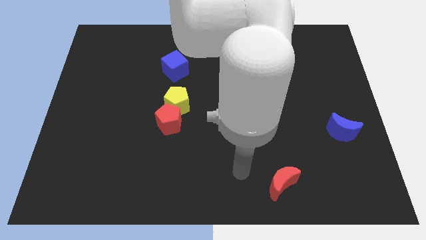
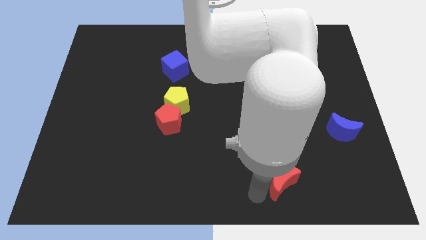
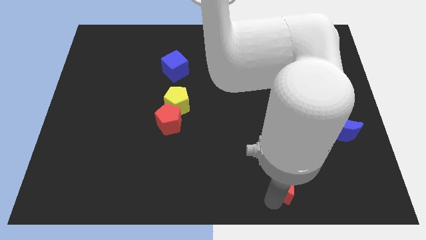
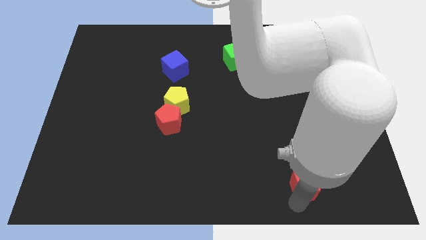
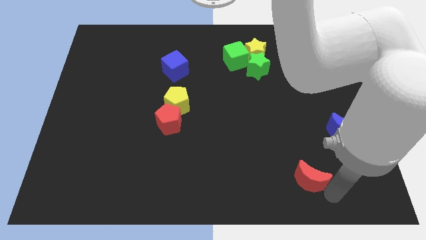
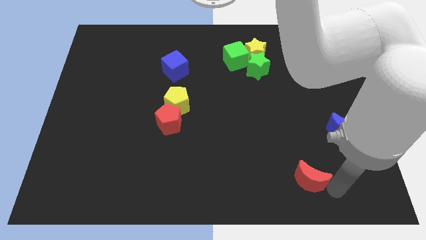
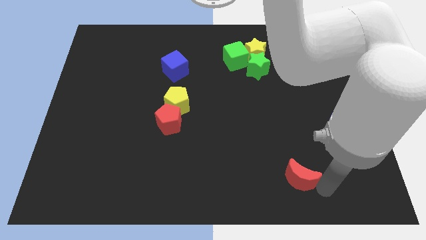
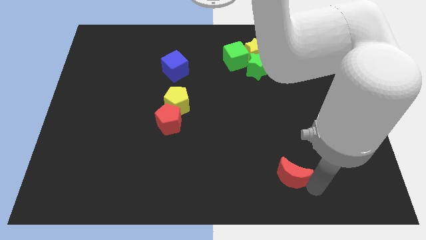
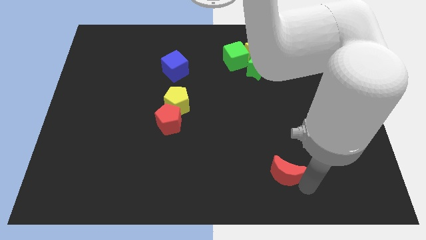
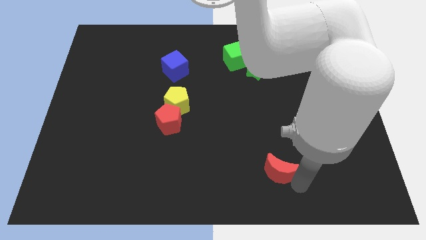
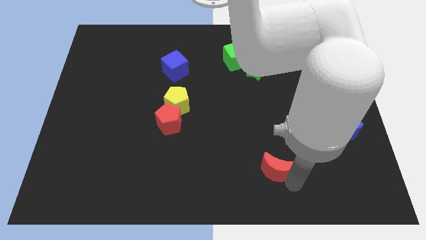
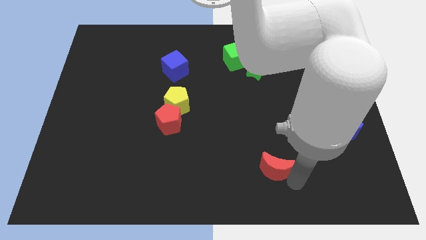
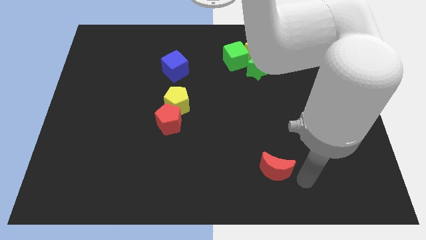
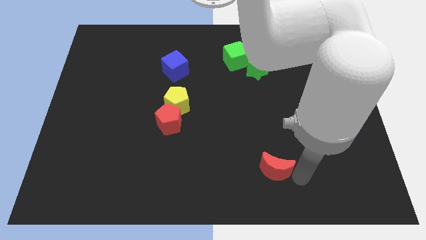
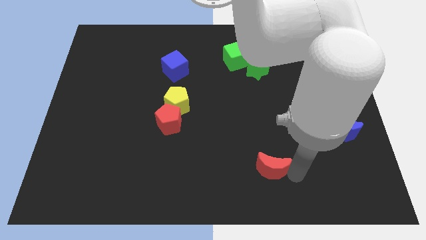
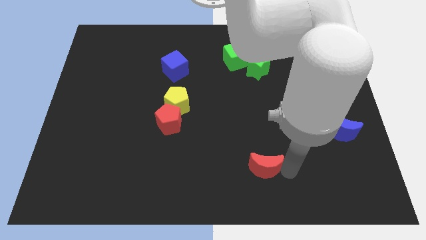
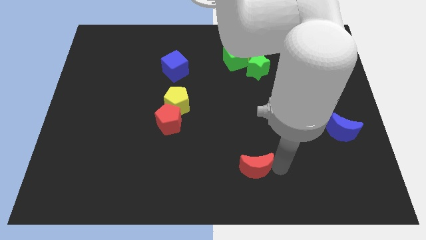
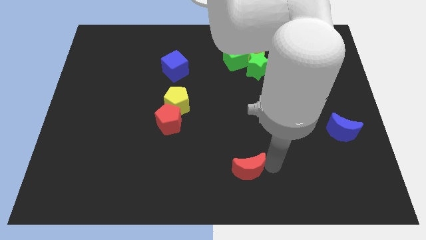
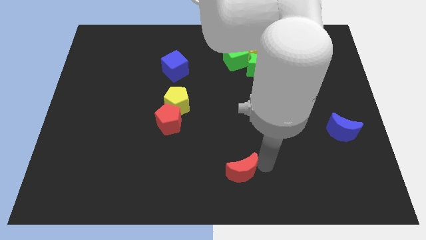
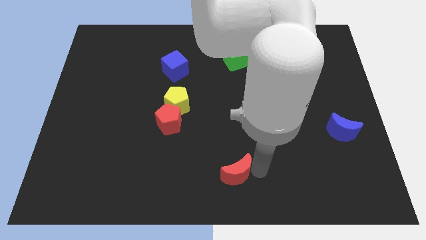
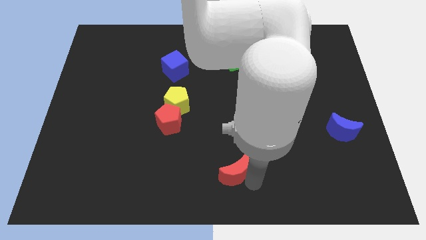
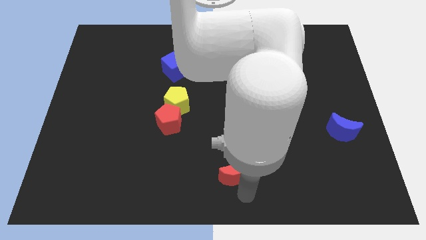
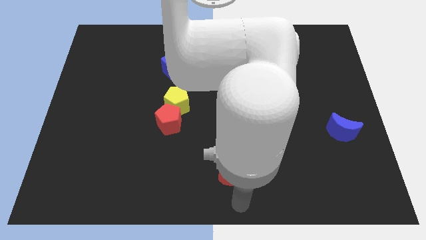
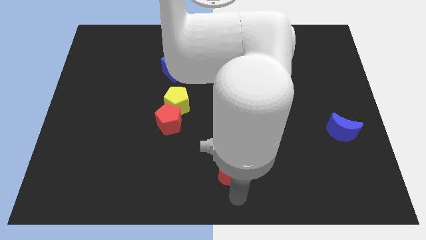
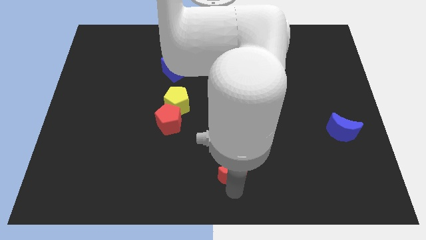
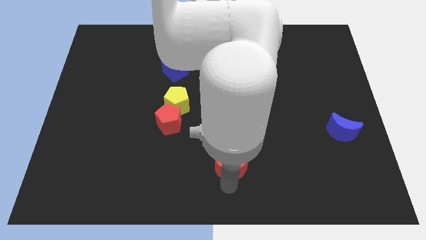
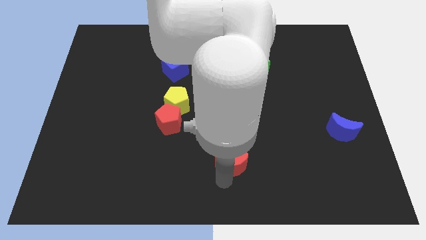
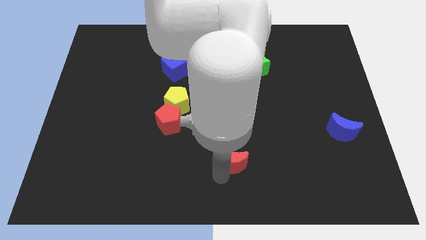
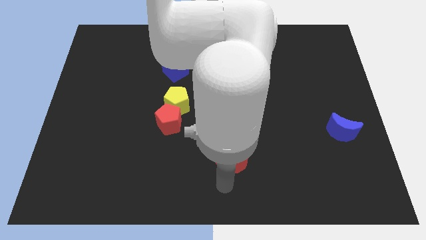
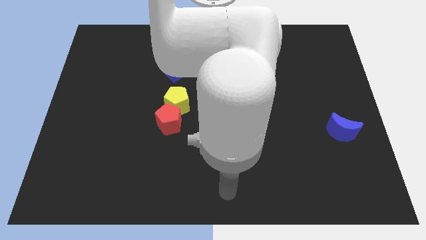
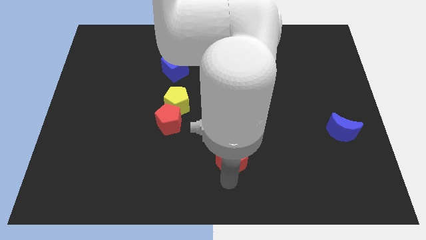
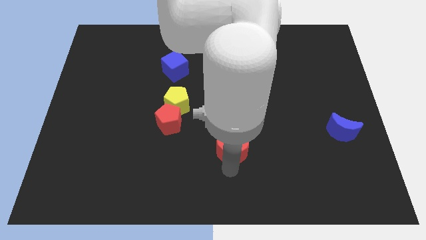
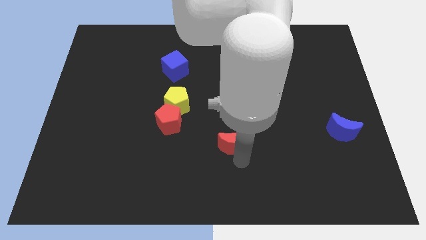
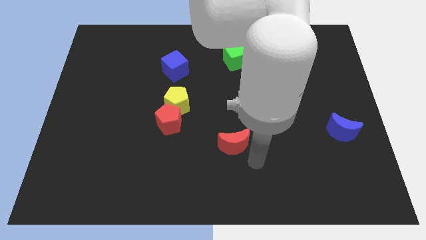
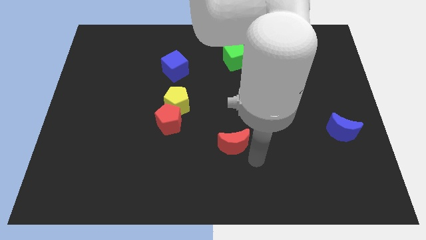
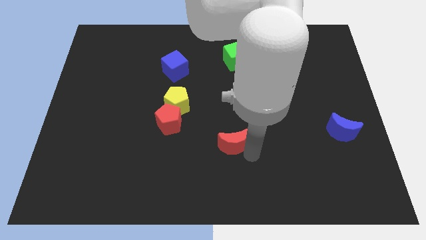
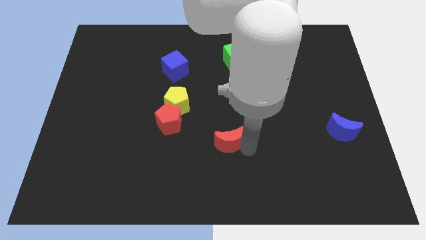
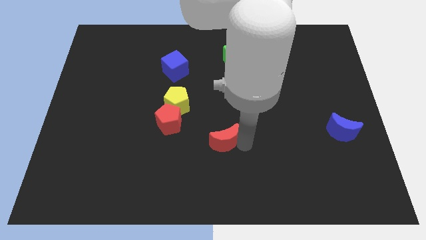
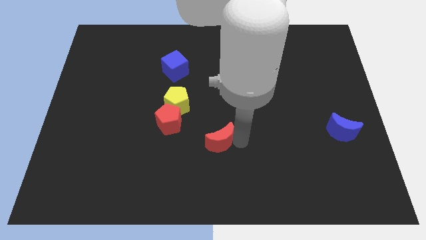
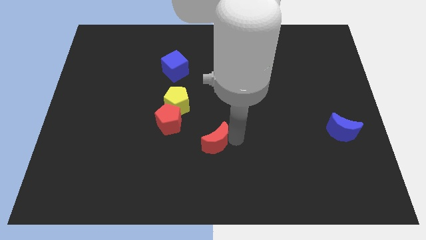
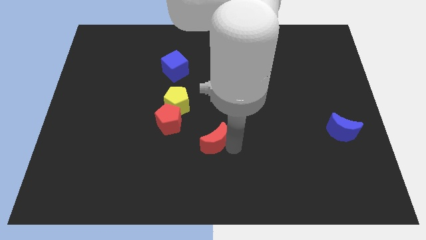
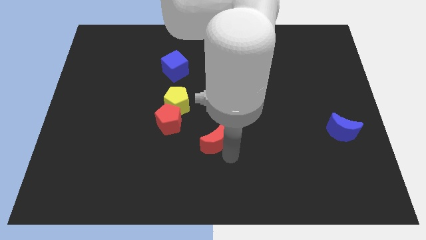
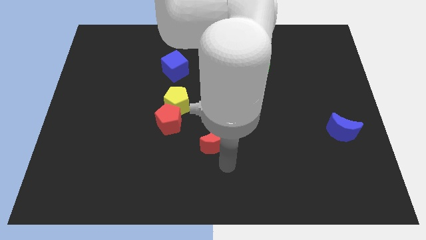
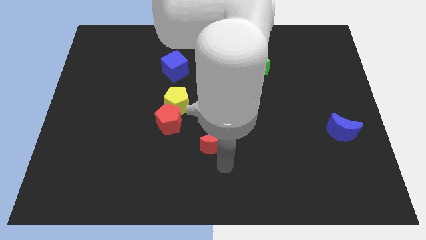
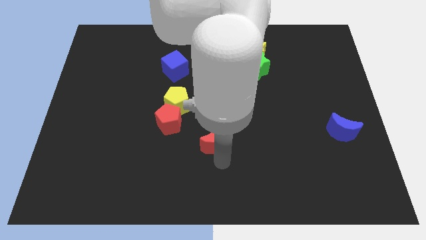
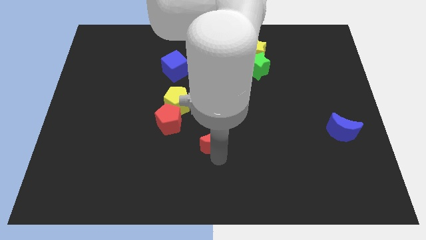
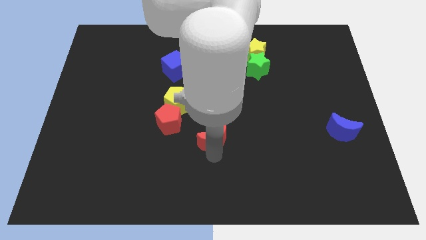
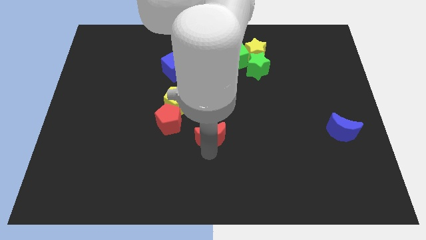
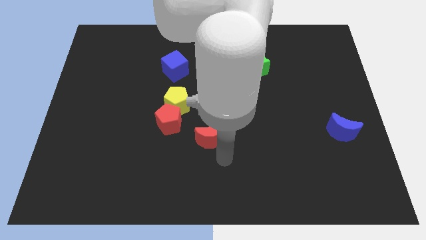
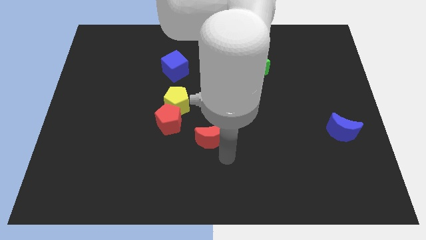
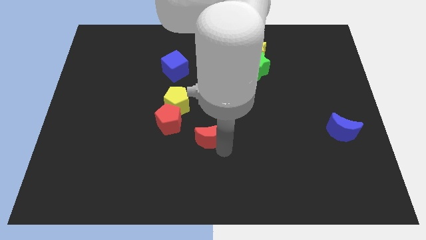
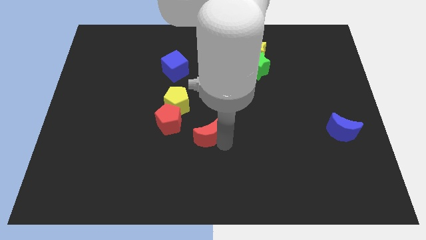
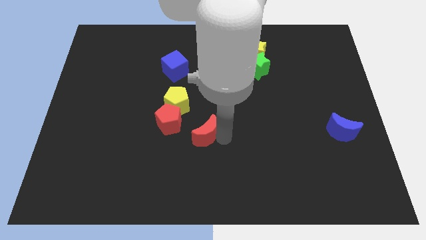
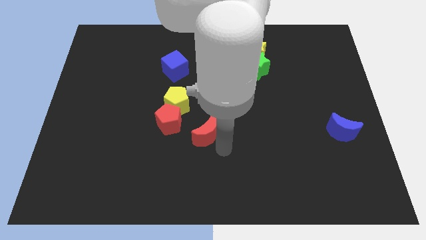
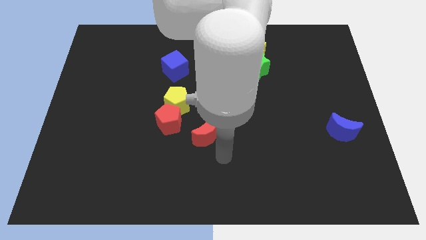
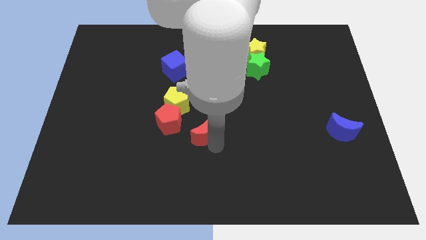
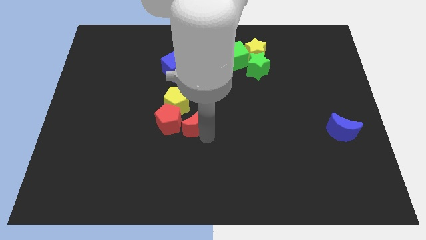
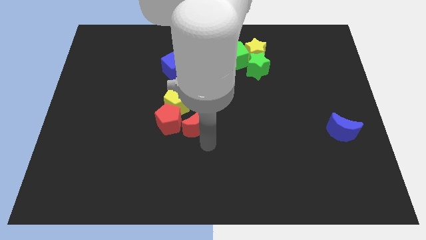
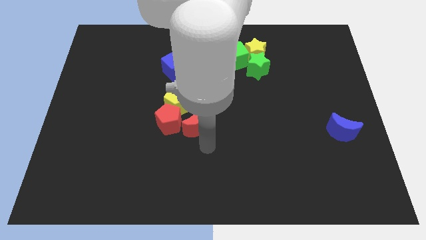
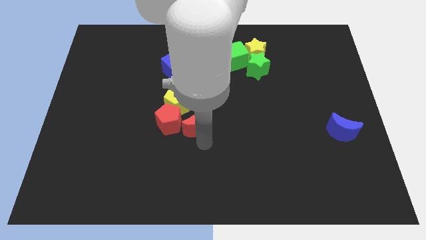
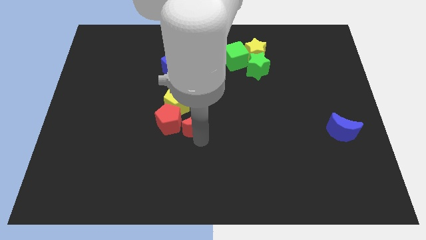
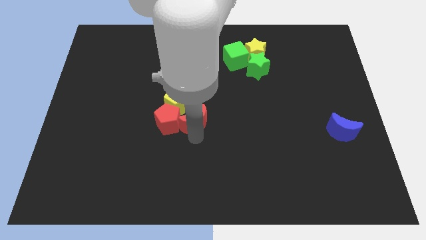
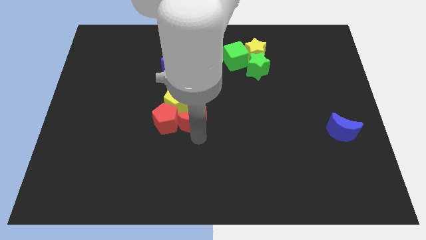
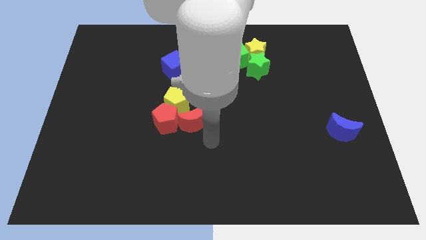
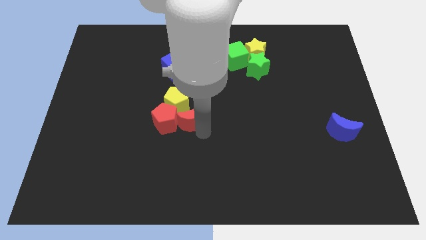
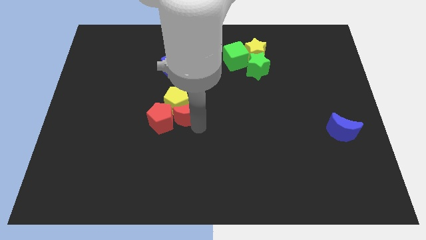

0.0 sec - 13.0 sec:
move the red moon next to the yellow pentagon

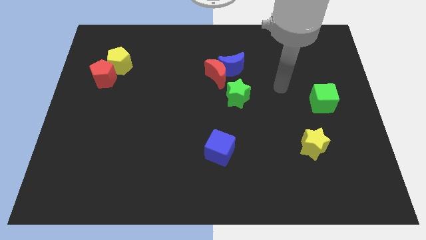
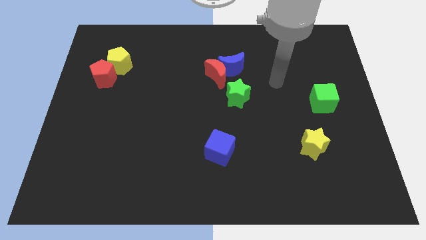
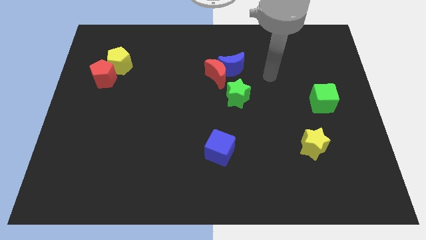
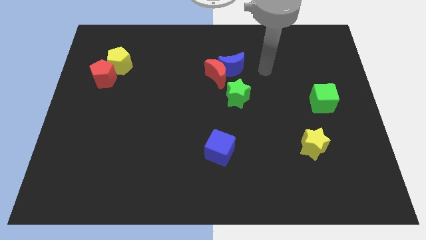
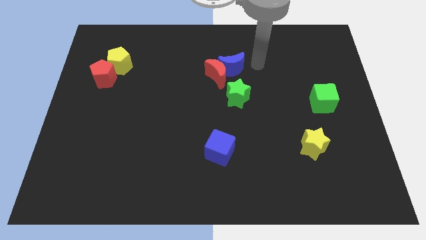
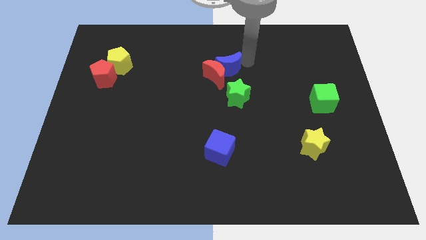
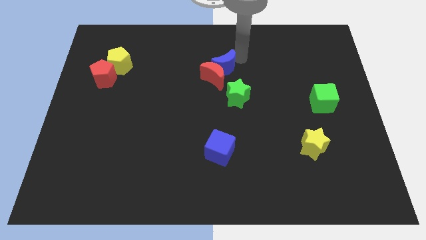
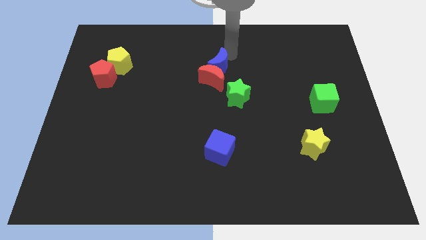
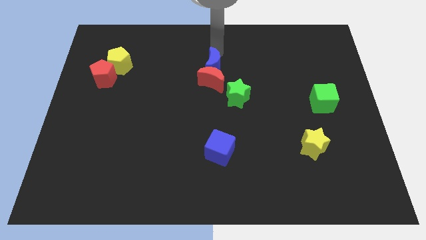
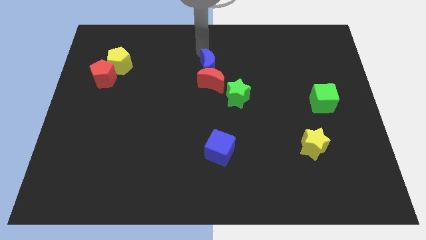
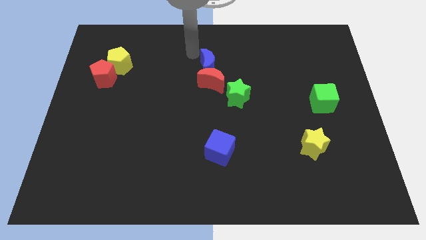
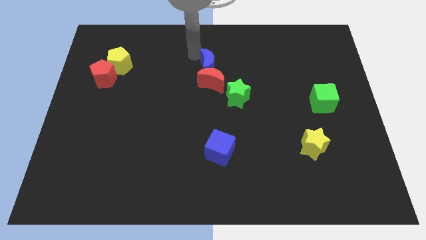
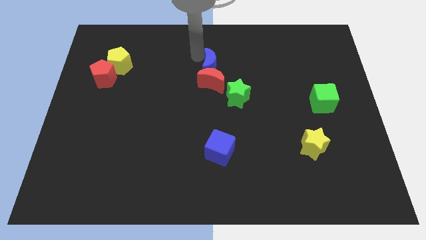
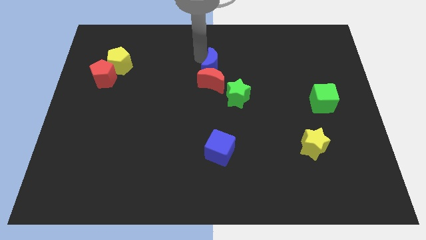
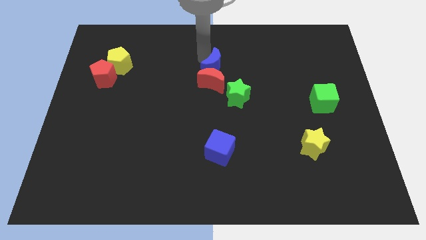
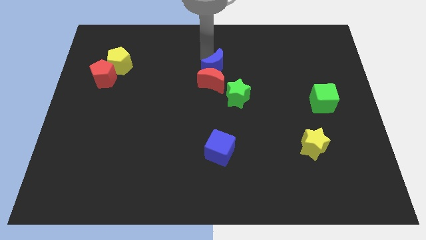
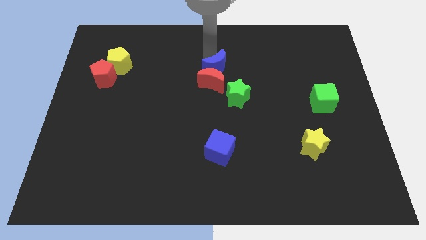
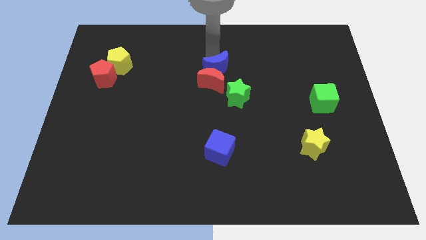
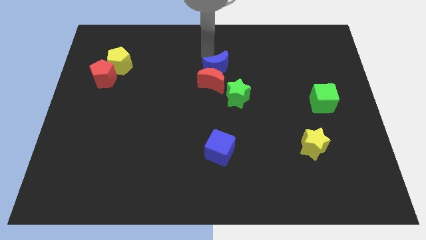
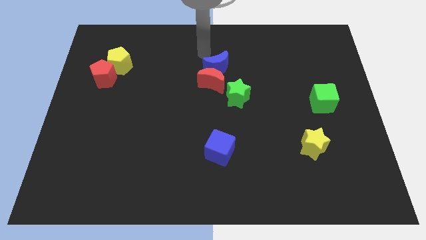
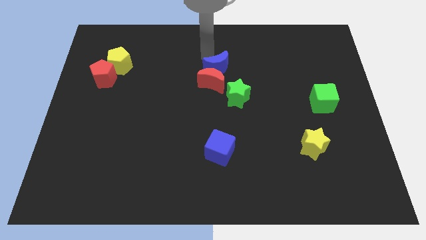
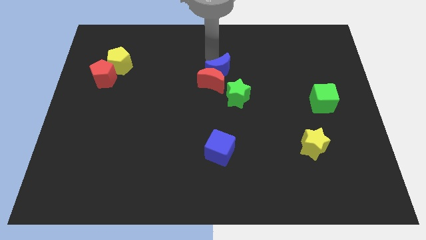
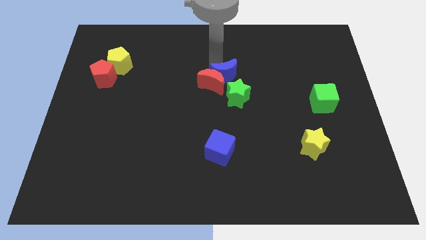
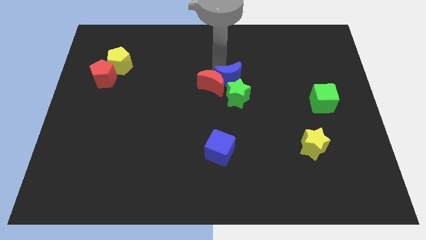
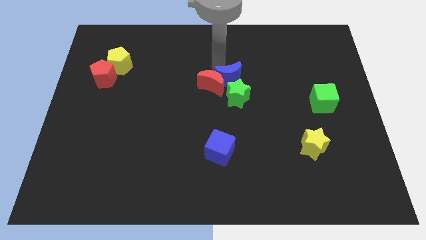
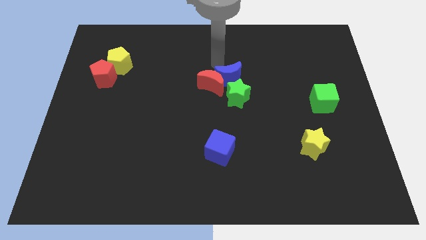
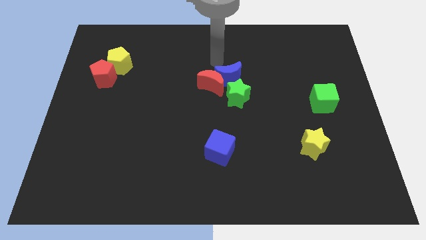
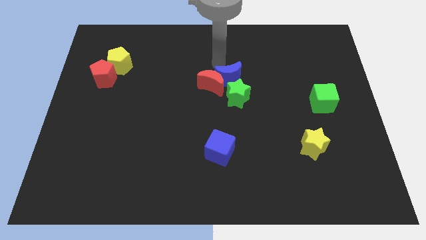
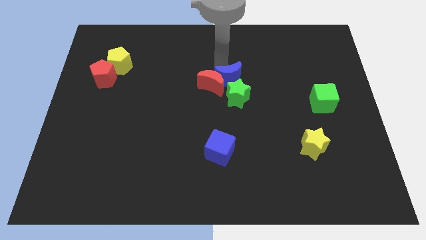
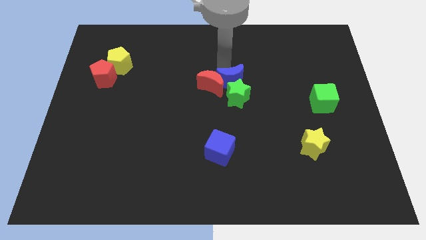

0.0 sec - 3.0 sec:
slide the blue moon close to the green star
